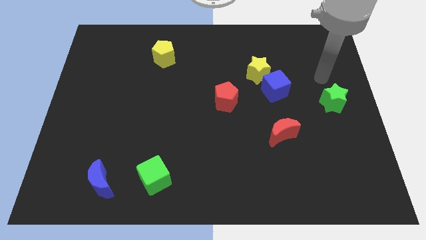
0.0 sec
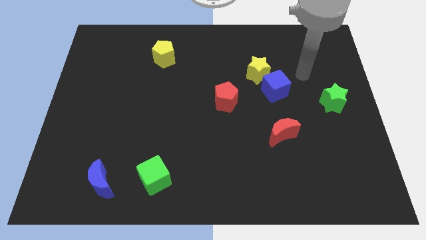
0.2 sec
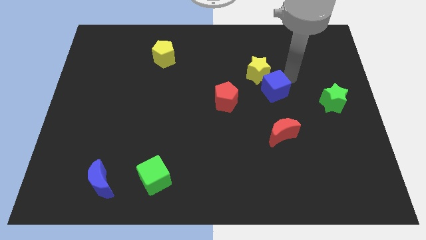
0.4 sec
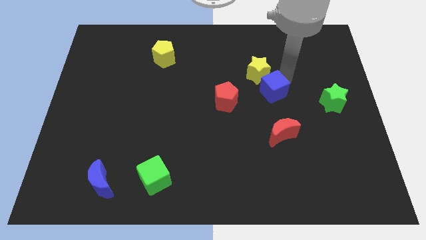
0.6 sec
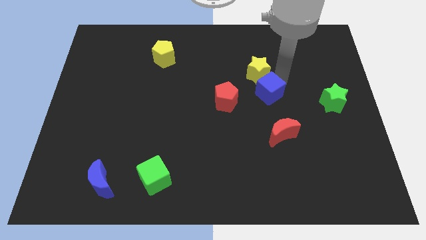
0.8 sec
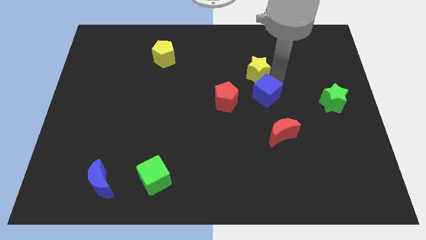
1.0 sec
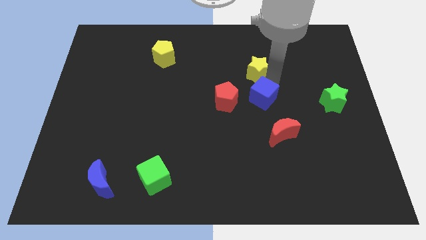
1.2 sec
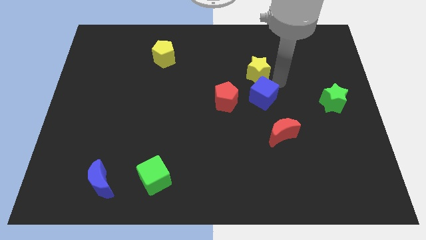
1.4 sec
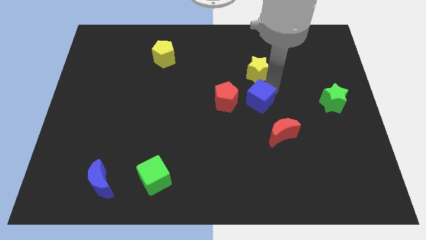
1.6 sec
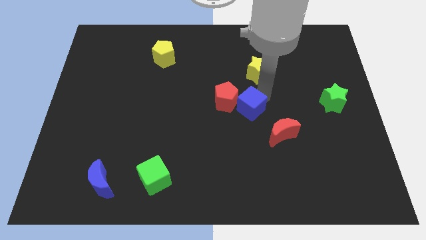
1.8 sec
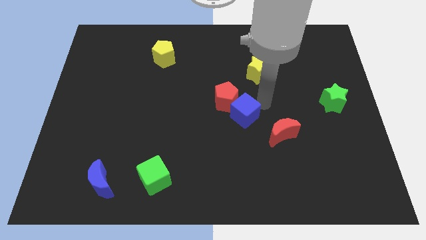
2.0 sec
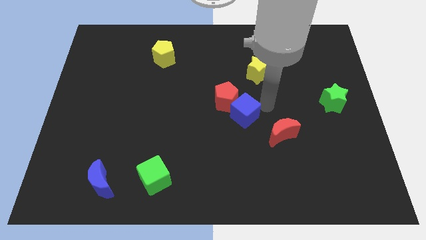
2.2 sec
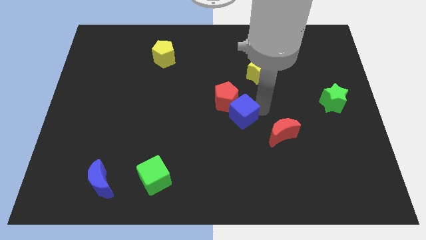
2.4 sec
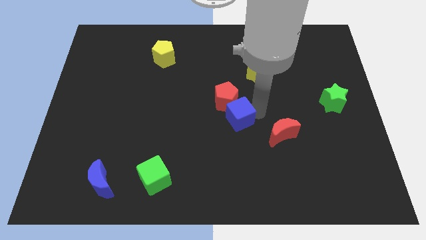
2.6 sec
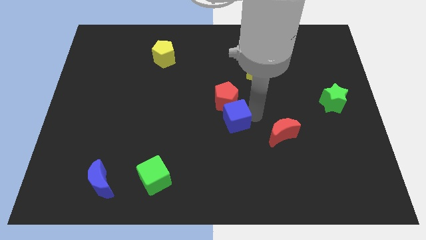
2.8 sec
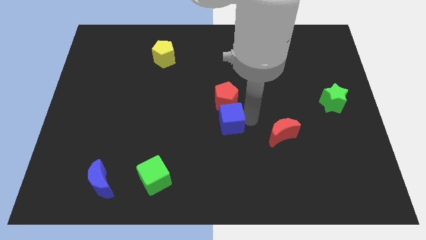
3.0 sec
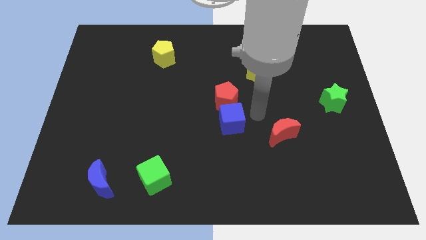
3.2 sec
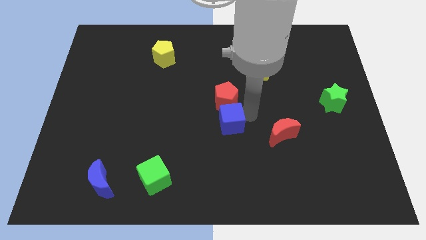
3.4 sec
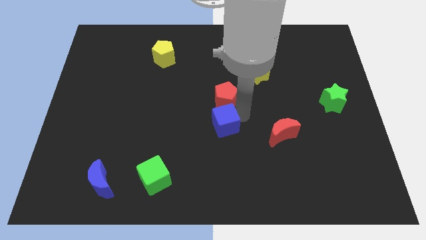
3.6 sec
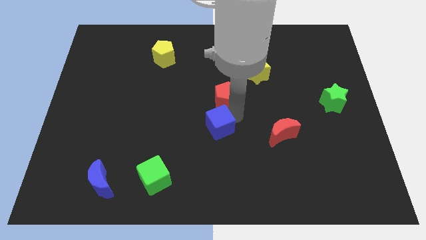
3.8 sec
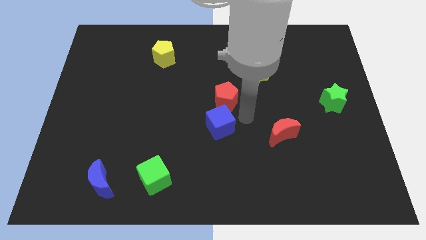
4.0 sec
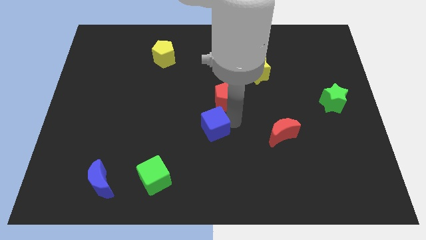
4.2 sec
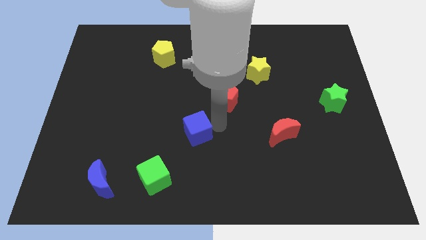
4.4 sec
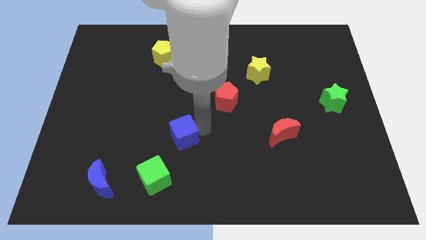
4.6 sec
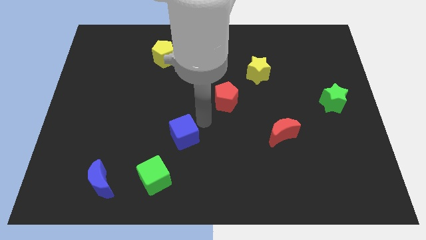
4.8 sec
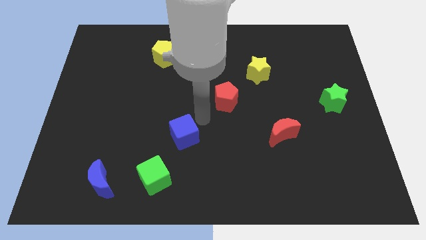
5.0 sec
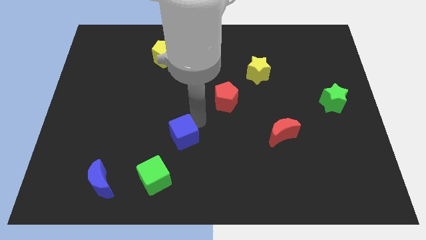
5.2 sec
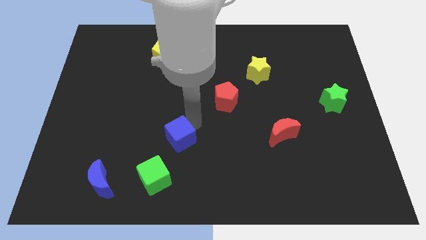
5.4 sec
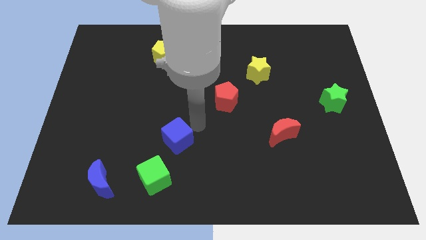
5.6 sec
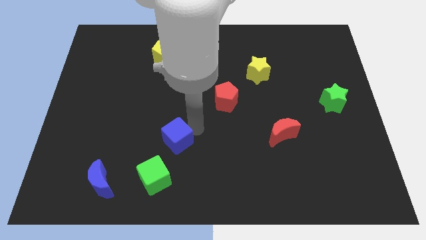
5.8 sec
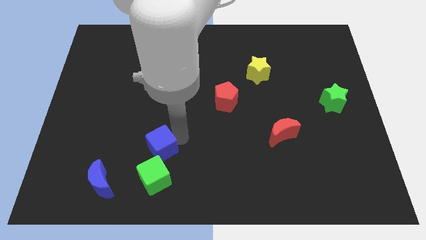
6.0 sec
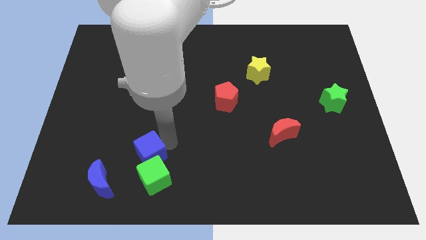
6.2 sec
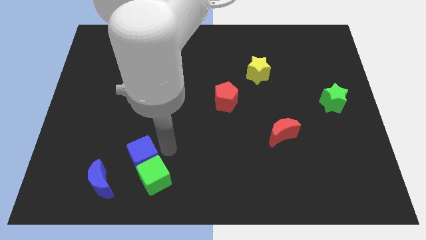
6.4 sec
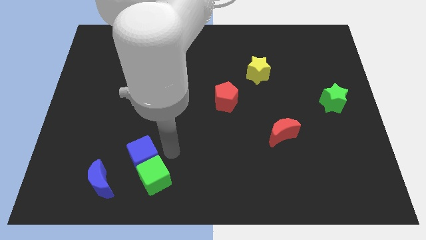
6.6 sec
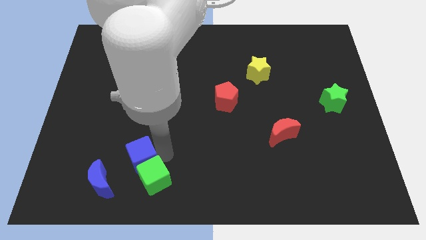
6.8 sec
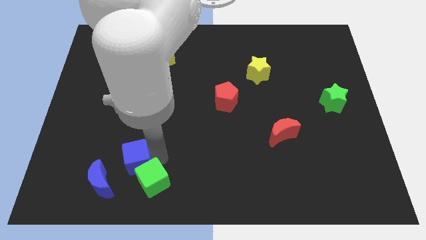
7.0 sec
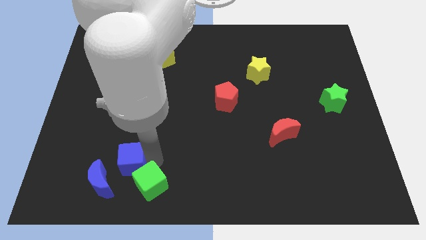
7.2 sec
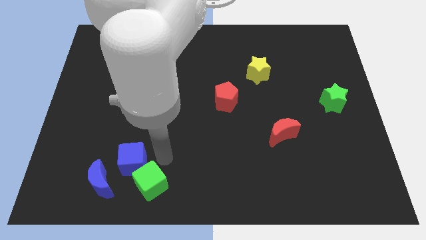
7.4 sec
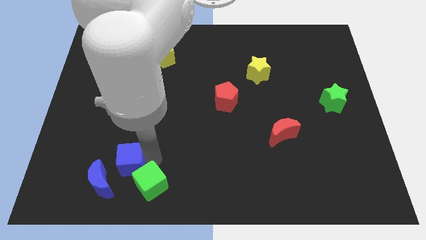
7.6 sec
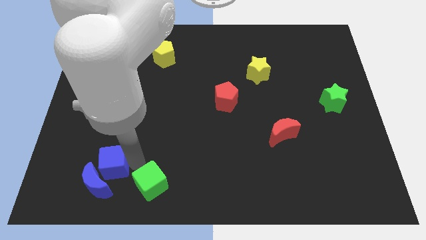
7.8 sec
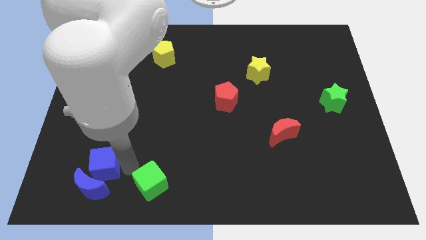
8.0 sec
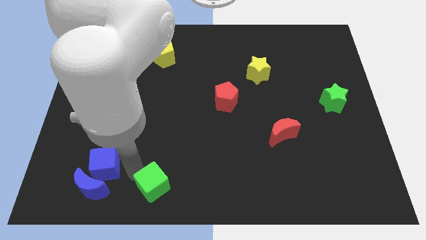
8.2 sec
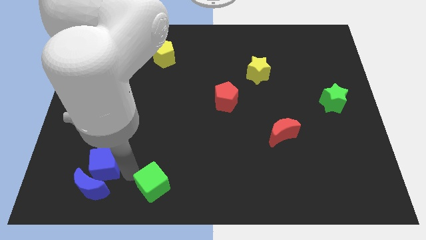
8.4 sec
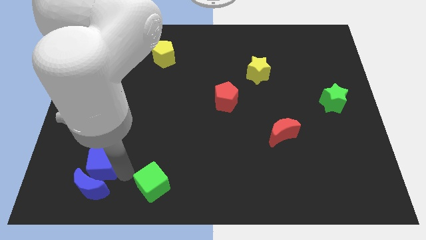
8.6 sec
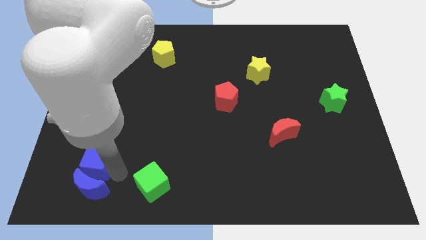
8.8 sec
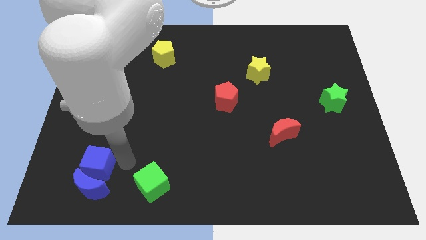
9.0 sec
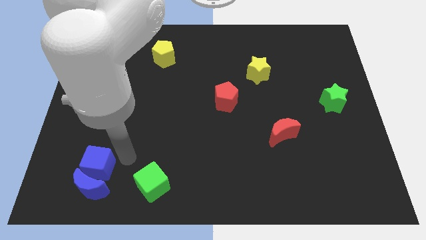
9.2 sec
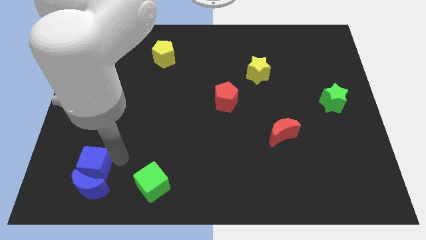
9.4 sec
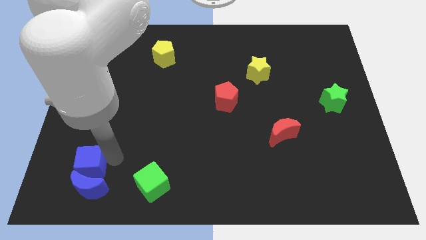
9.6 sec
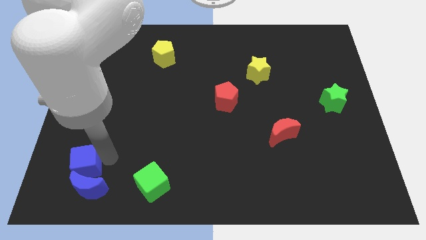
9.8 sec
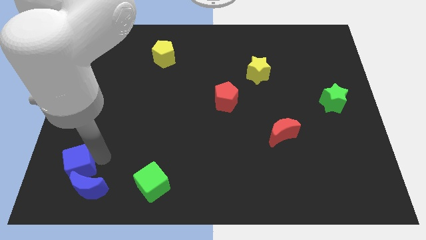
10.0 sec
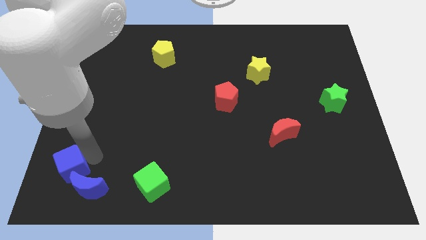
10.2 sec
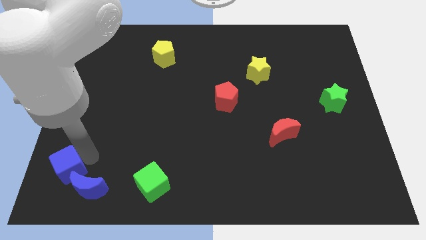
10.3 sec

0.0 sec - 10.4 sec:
move the blue cube to the lower left corner

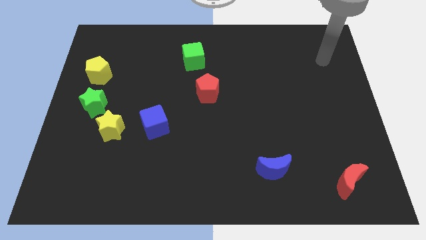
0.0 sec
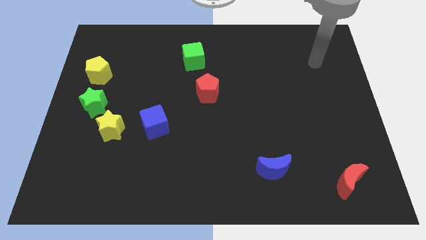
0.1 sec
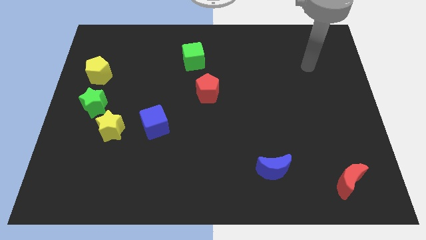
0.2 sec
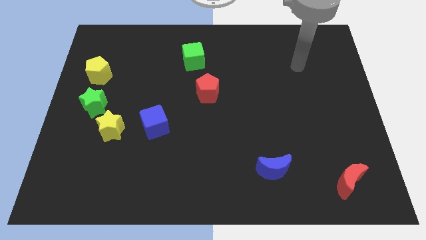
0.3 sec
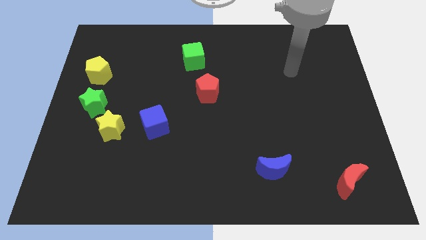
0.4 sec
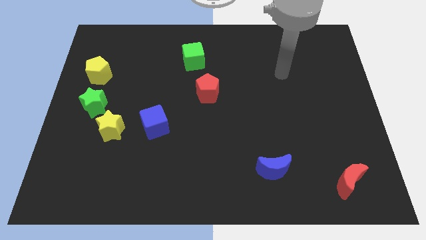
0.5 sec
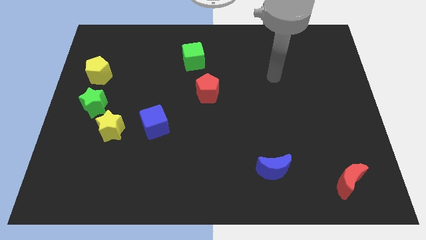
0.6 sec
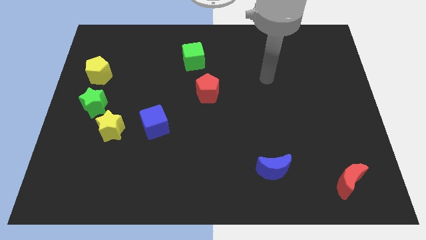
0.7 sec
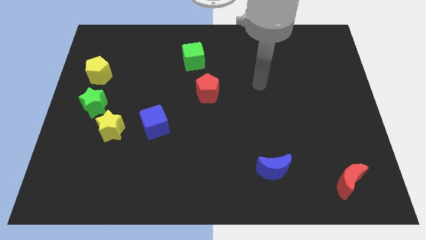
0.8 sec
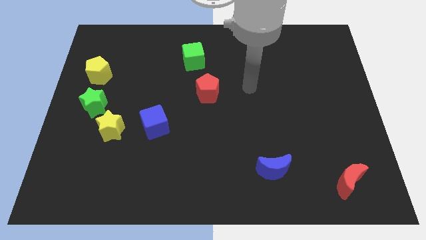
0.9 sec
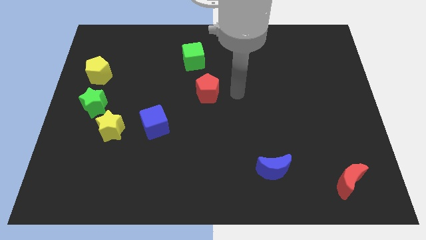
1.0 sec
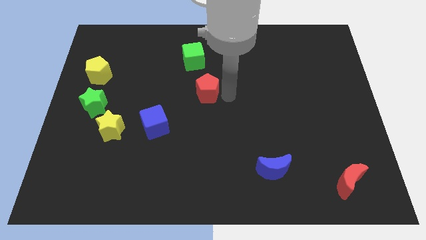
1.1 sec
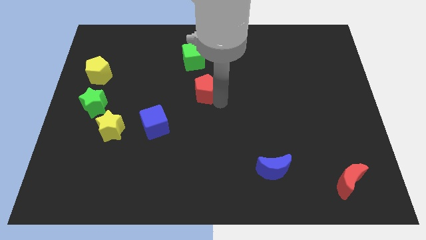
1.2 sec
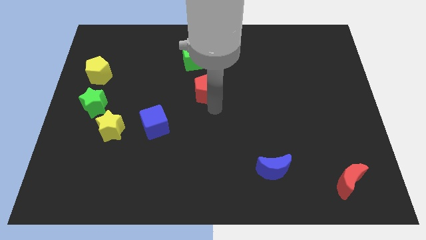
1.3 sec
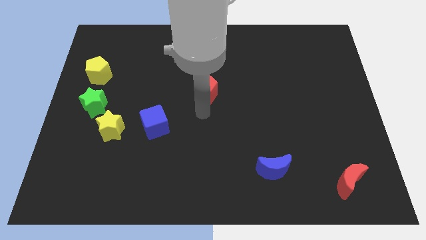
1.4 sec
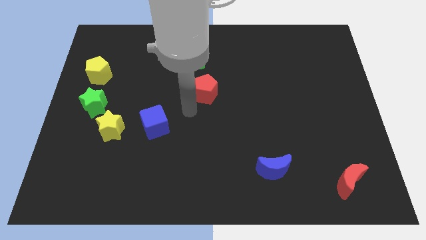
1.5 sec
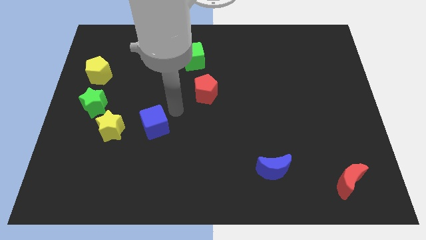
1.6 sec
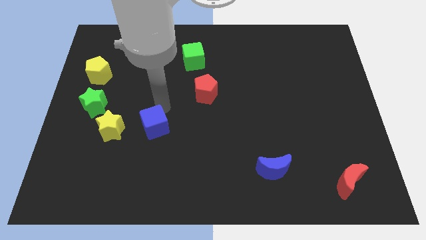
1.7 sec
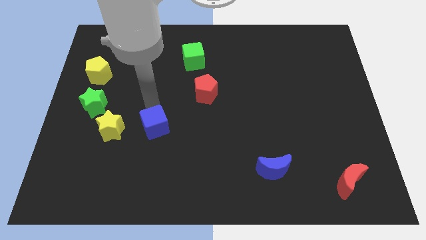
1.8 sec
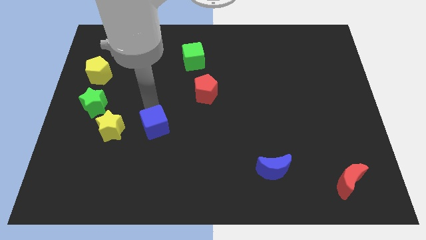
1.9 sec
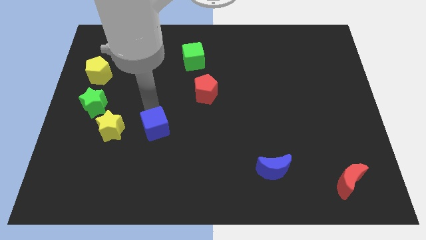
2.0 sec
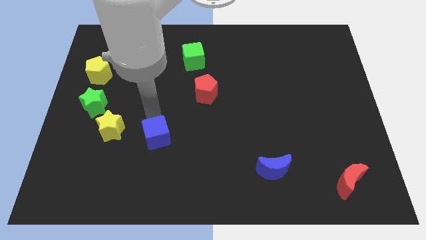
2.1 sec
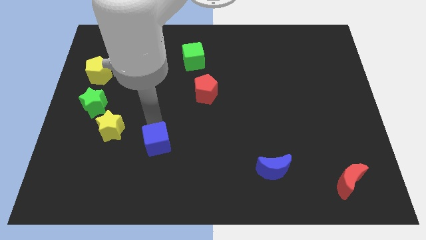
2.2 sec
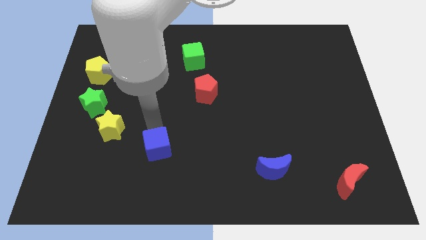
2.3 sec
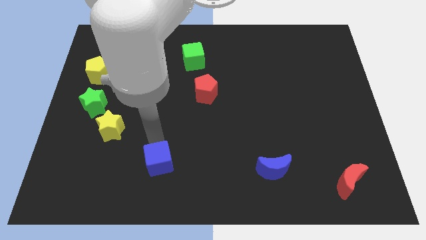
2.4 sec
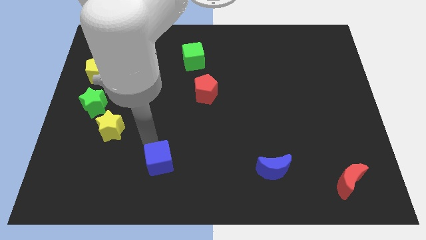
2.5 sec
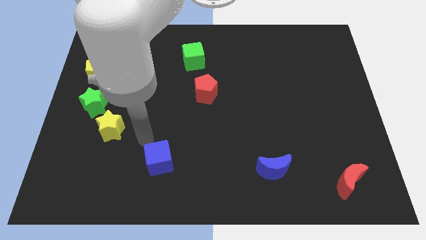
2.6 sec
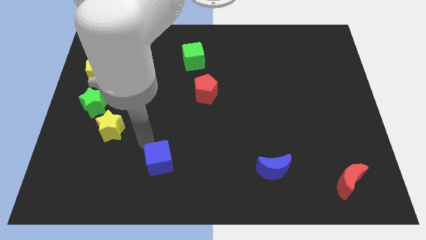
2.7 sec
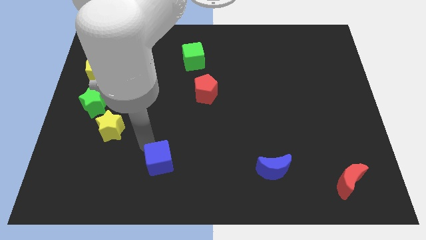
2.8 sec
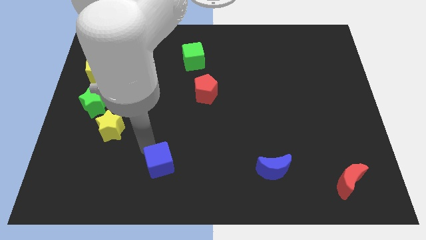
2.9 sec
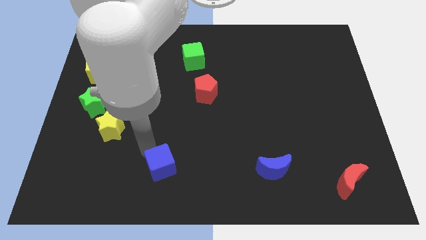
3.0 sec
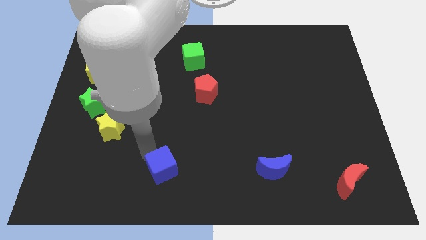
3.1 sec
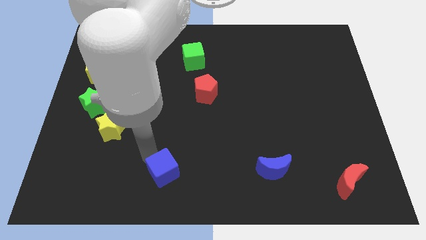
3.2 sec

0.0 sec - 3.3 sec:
move the blue cube to the bottom
